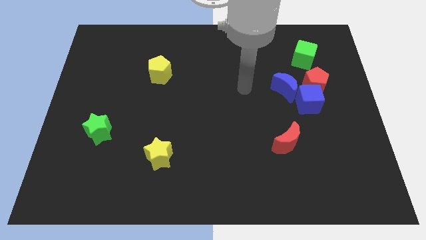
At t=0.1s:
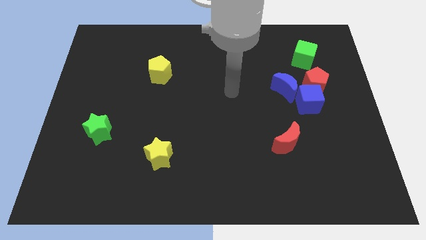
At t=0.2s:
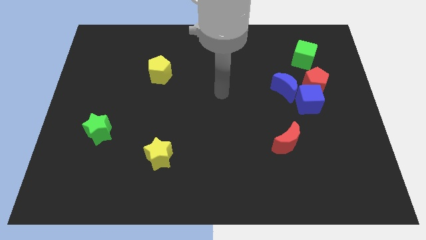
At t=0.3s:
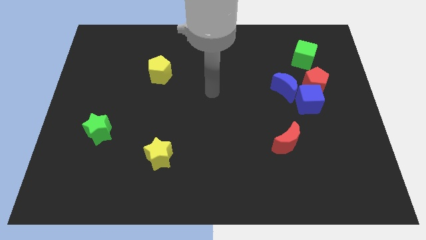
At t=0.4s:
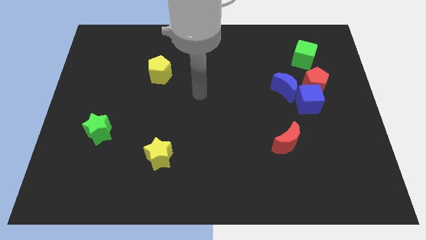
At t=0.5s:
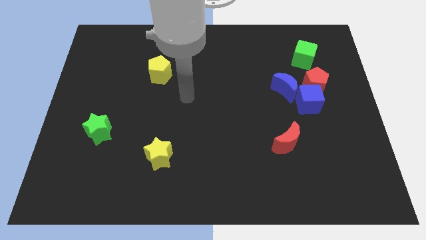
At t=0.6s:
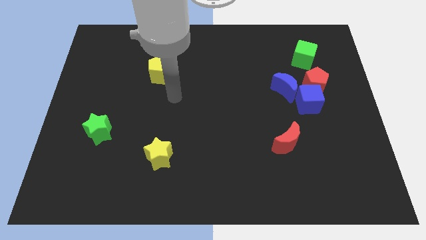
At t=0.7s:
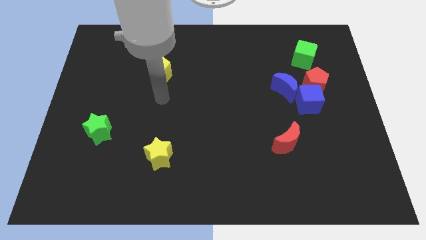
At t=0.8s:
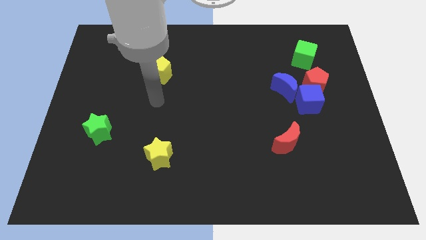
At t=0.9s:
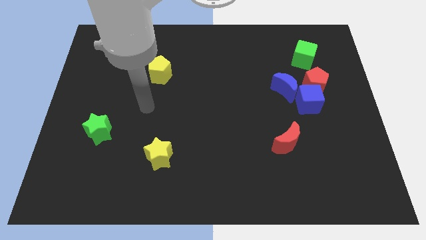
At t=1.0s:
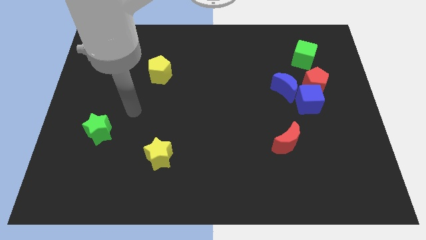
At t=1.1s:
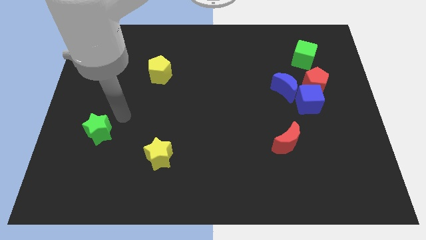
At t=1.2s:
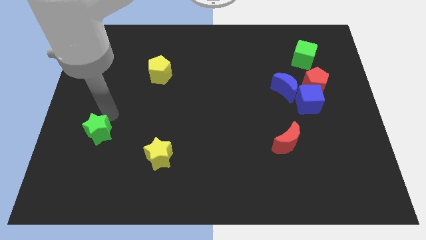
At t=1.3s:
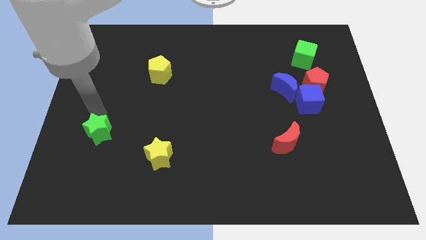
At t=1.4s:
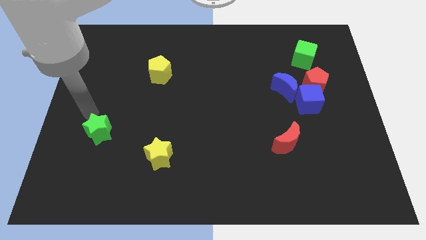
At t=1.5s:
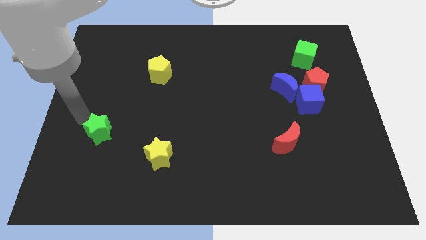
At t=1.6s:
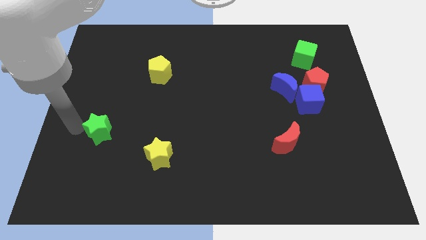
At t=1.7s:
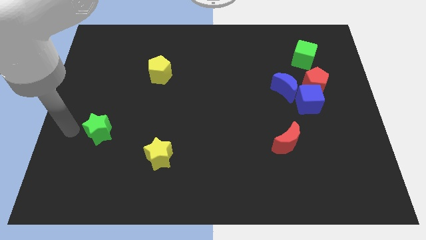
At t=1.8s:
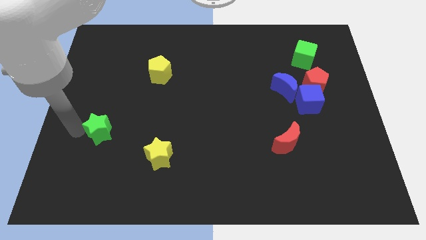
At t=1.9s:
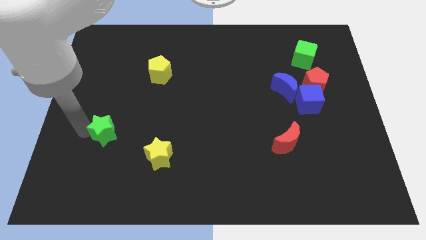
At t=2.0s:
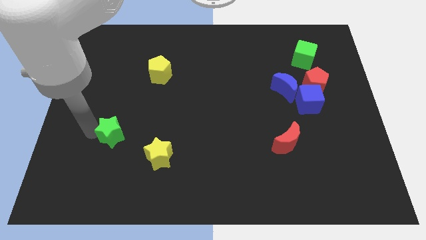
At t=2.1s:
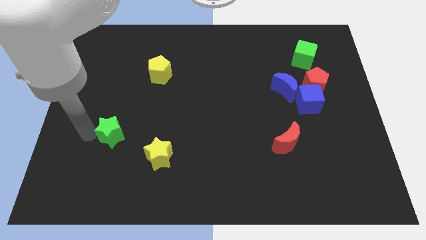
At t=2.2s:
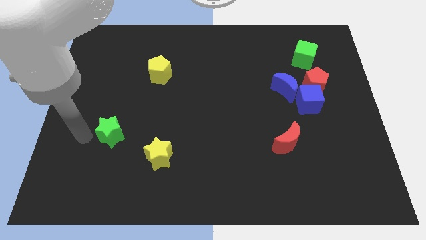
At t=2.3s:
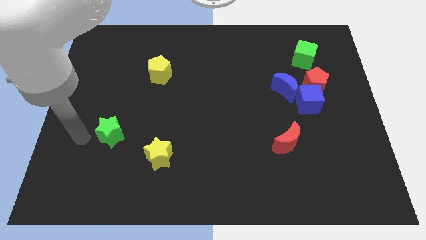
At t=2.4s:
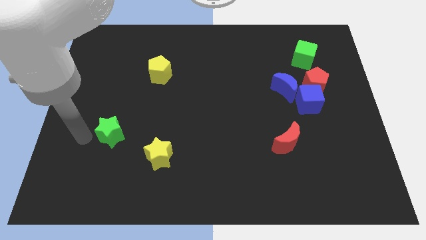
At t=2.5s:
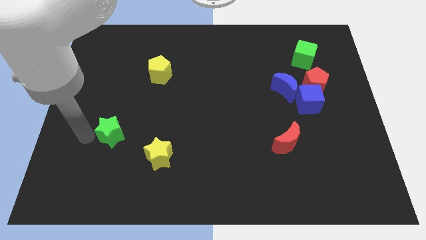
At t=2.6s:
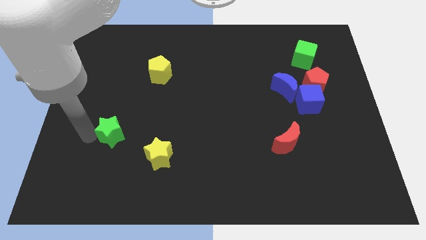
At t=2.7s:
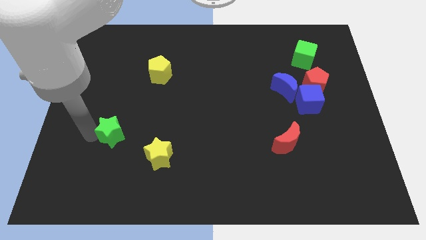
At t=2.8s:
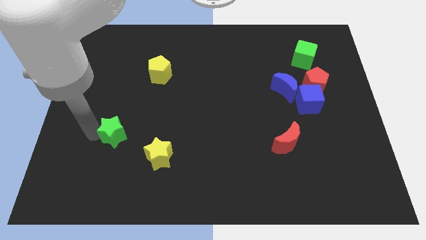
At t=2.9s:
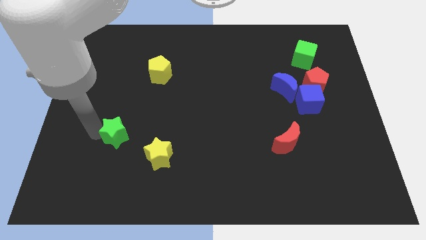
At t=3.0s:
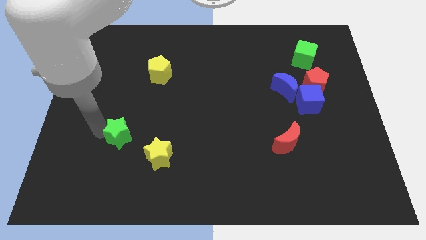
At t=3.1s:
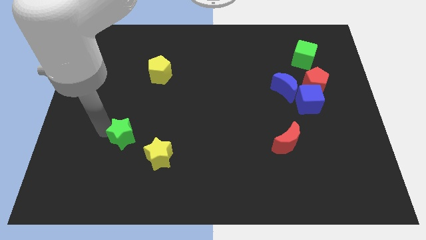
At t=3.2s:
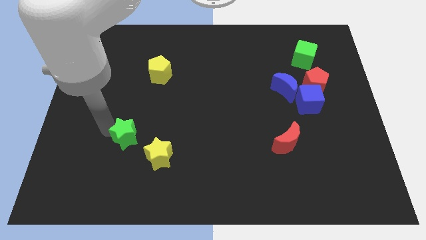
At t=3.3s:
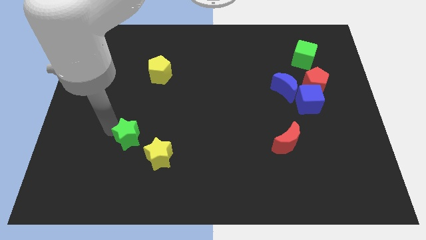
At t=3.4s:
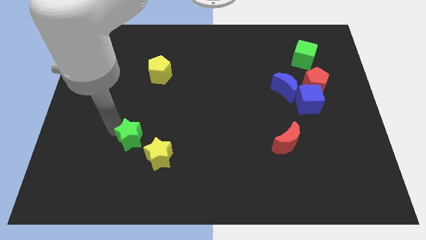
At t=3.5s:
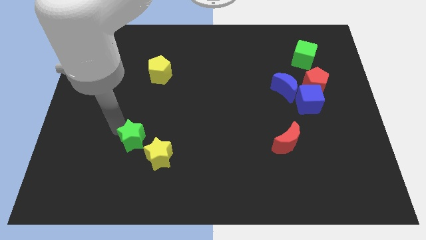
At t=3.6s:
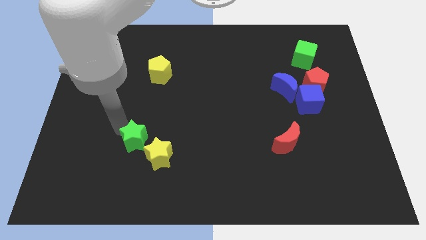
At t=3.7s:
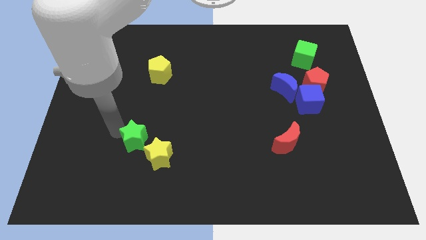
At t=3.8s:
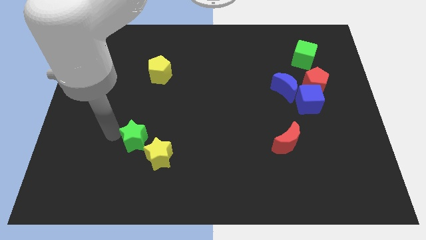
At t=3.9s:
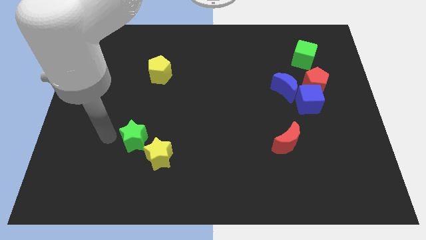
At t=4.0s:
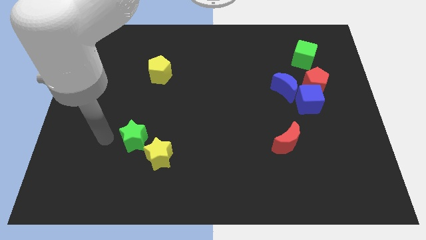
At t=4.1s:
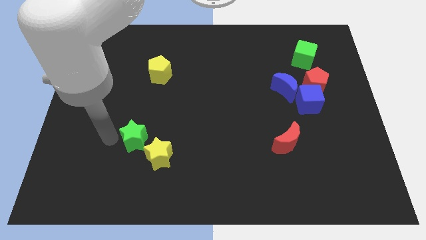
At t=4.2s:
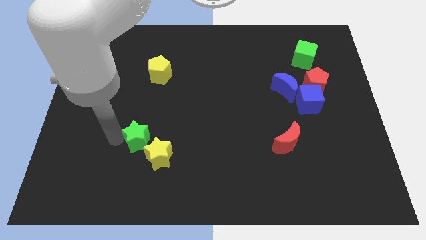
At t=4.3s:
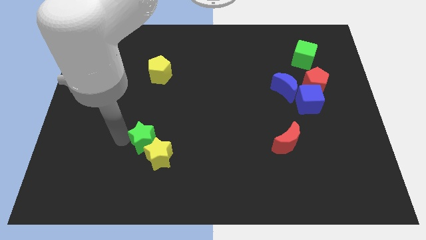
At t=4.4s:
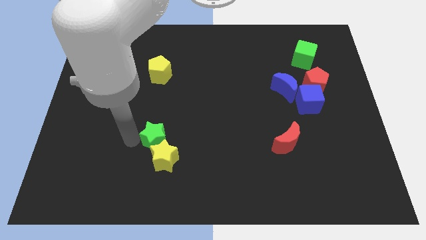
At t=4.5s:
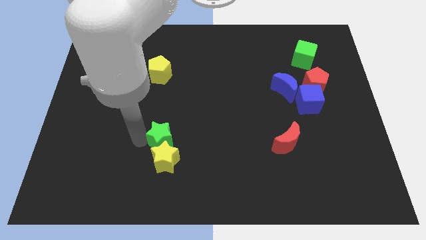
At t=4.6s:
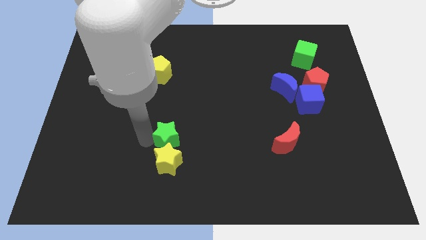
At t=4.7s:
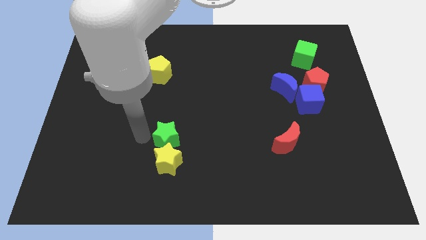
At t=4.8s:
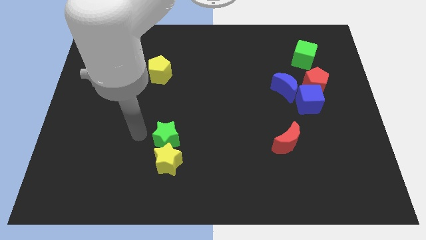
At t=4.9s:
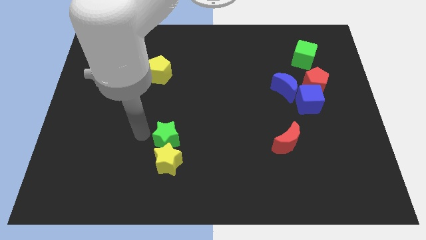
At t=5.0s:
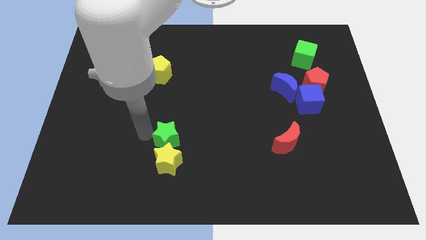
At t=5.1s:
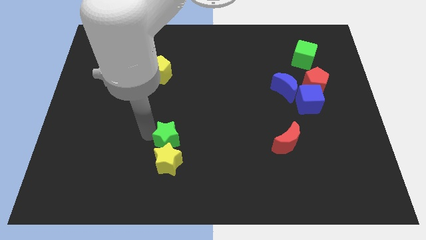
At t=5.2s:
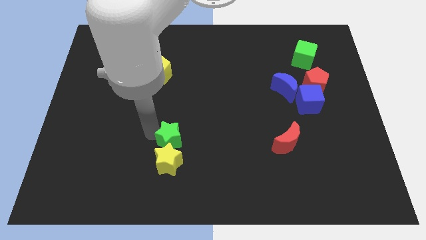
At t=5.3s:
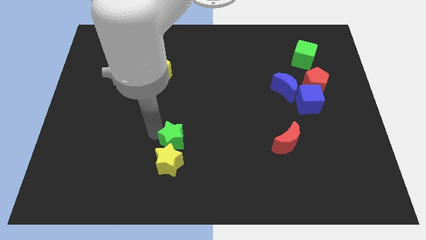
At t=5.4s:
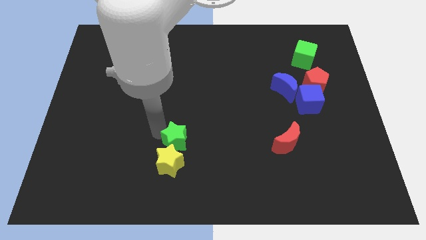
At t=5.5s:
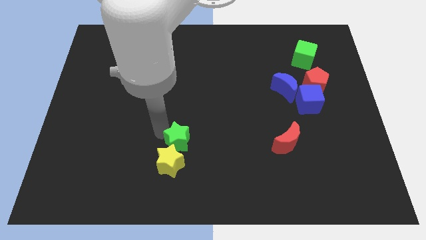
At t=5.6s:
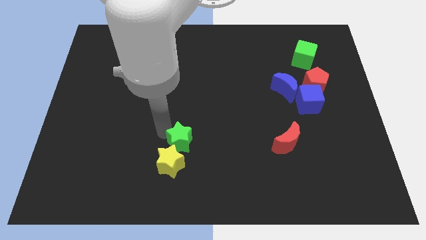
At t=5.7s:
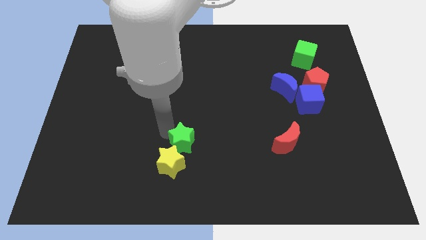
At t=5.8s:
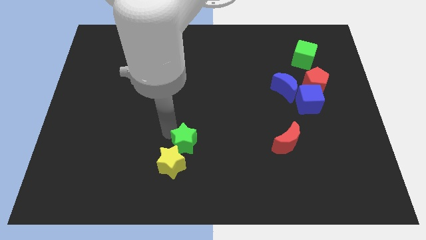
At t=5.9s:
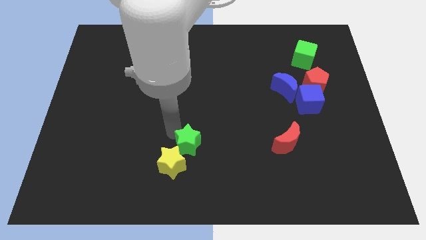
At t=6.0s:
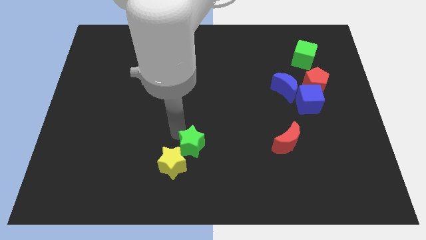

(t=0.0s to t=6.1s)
slide the green star to the right of the yellow star
